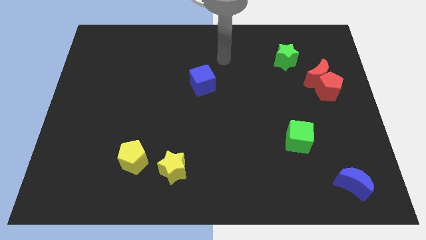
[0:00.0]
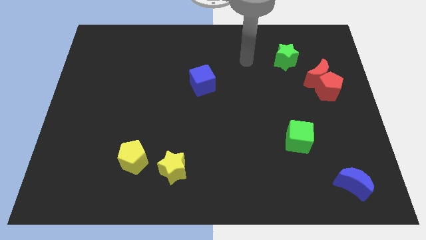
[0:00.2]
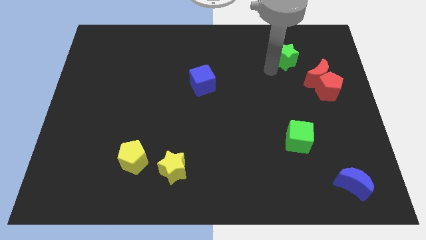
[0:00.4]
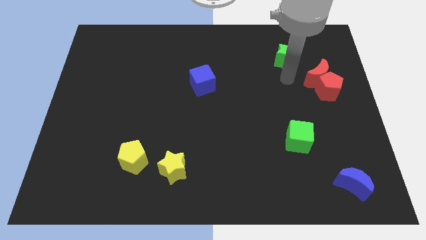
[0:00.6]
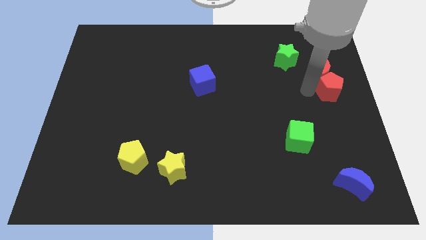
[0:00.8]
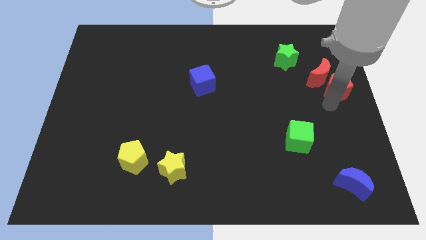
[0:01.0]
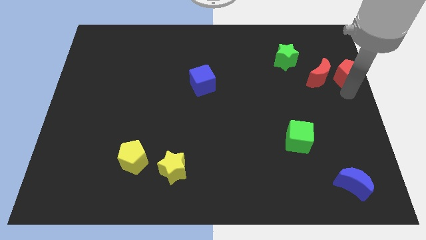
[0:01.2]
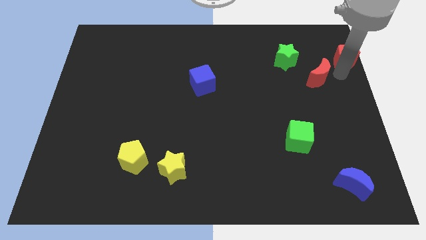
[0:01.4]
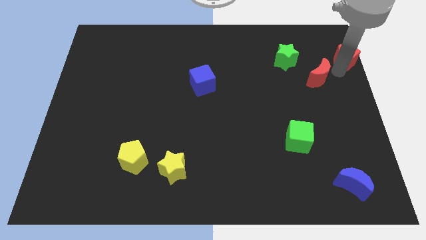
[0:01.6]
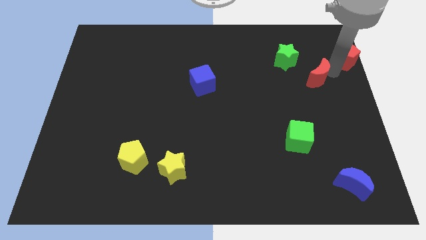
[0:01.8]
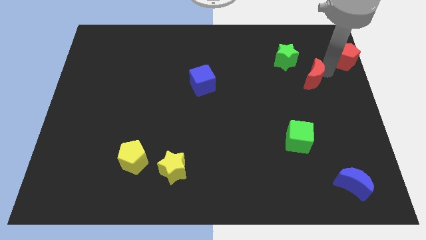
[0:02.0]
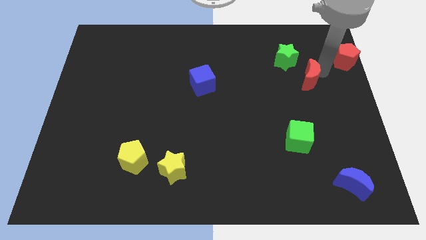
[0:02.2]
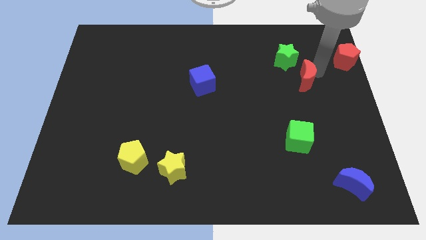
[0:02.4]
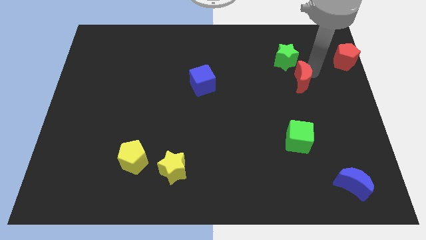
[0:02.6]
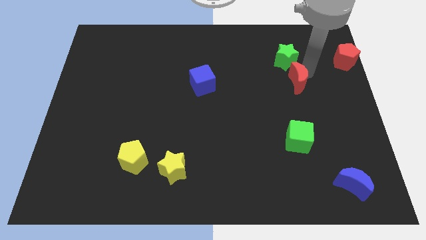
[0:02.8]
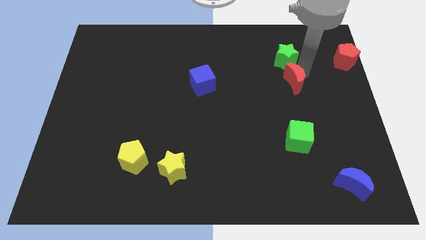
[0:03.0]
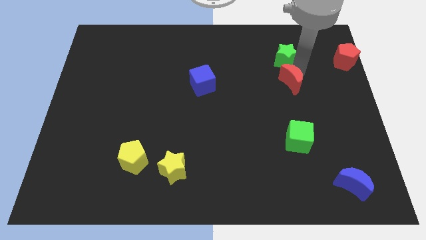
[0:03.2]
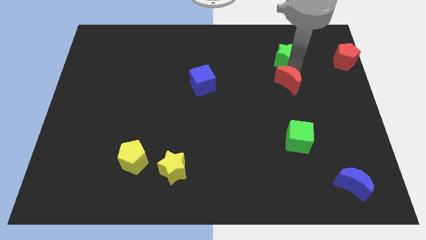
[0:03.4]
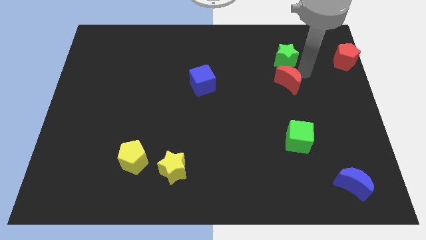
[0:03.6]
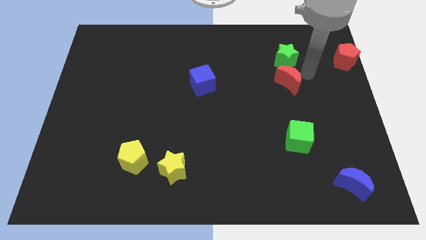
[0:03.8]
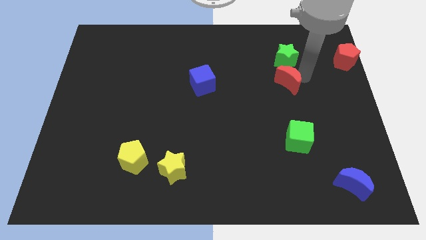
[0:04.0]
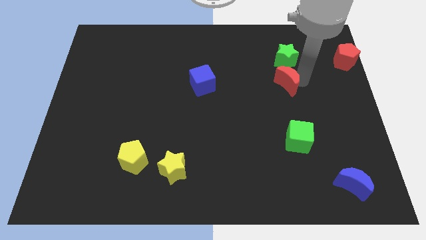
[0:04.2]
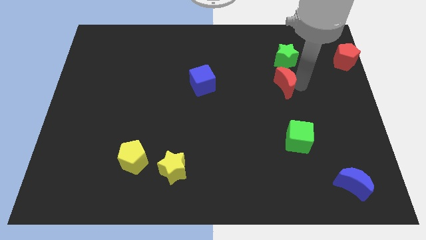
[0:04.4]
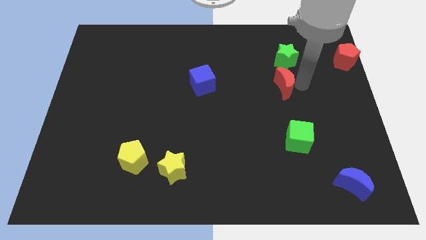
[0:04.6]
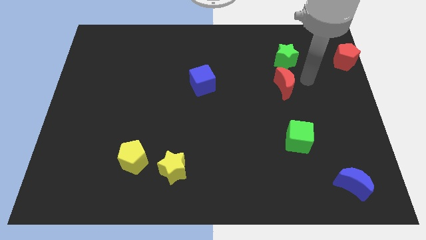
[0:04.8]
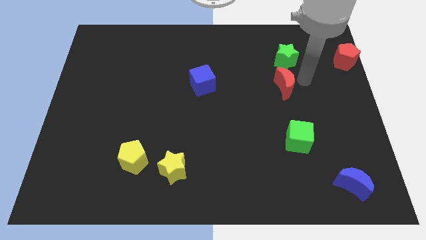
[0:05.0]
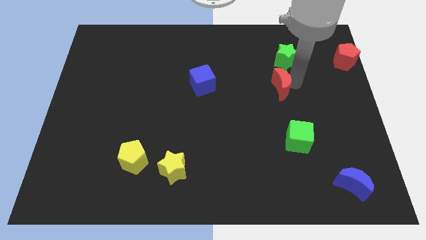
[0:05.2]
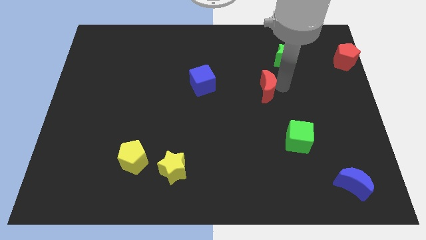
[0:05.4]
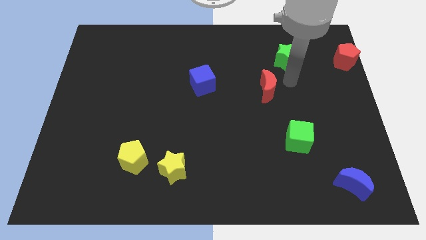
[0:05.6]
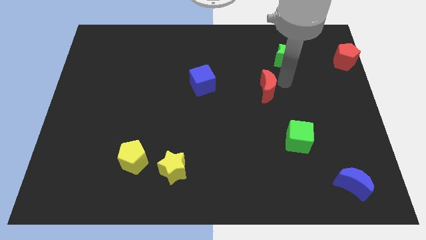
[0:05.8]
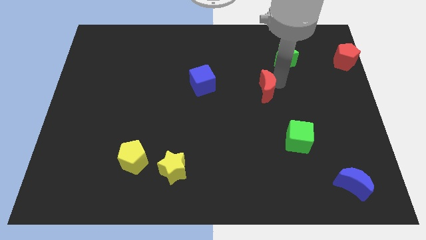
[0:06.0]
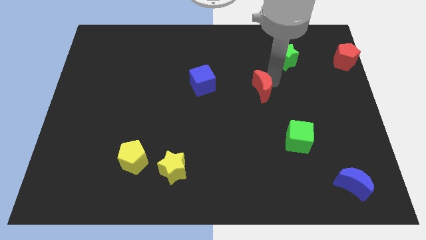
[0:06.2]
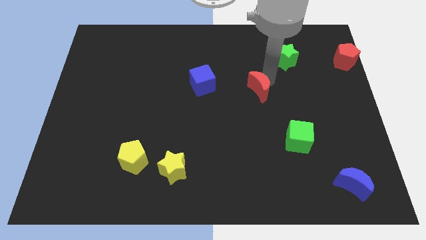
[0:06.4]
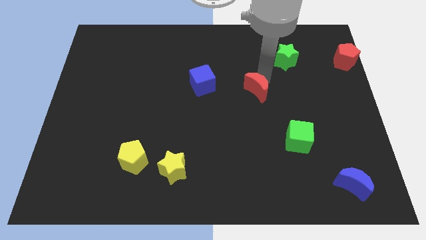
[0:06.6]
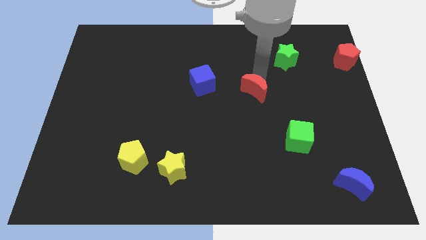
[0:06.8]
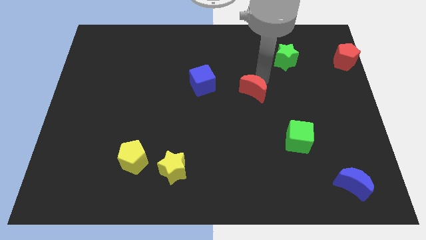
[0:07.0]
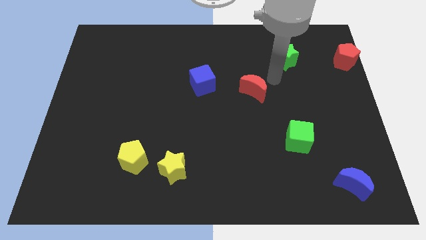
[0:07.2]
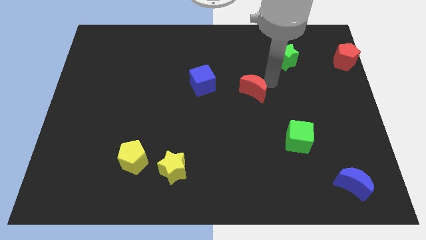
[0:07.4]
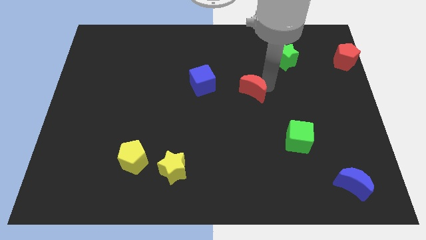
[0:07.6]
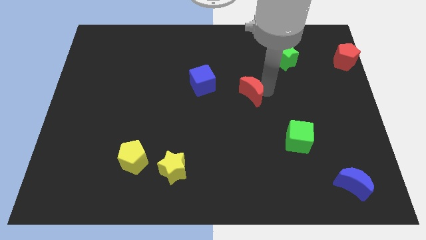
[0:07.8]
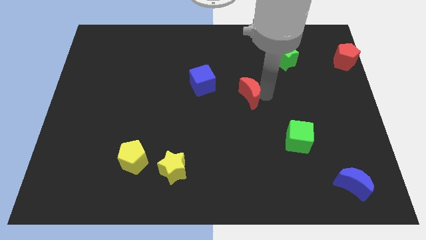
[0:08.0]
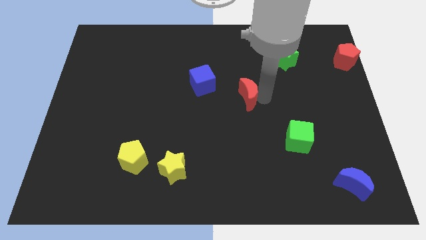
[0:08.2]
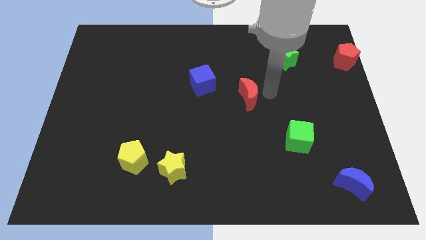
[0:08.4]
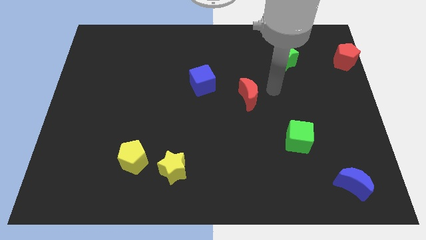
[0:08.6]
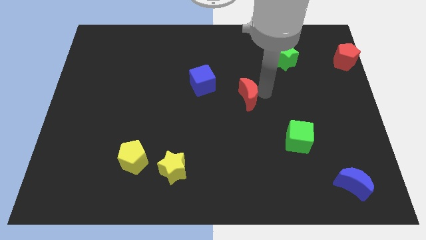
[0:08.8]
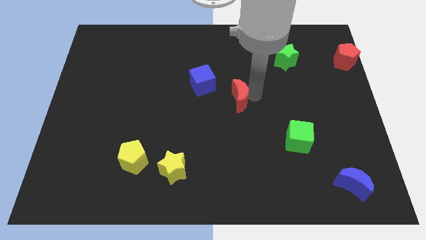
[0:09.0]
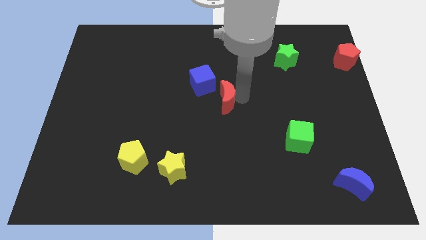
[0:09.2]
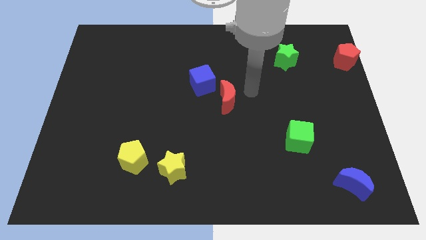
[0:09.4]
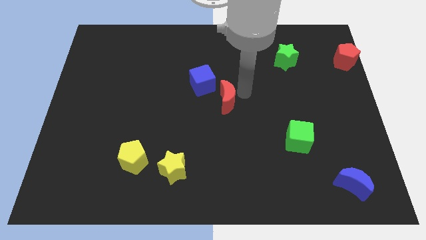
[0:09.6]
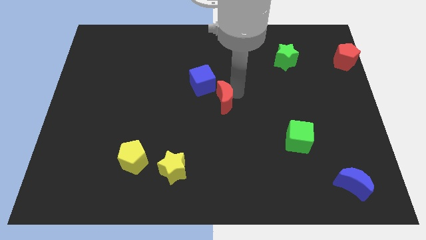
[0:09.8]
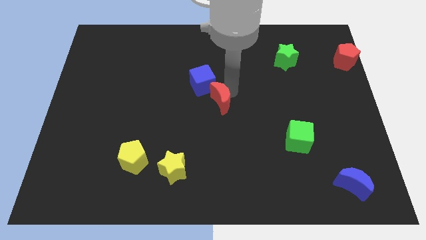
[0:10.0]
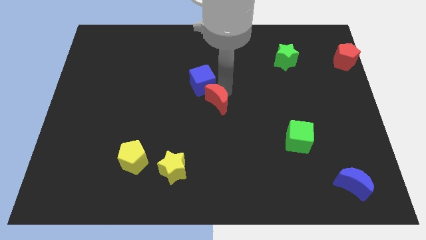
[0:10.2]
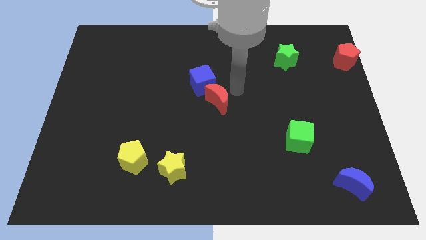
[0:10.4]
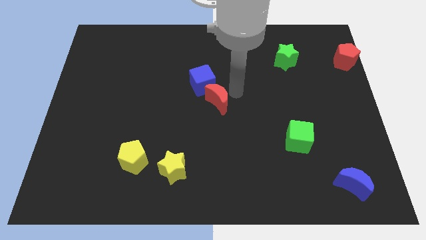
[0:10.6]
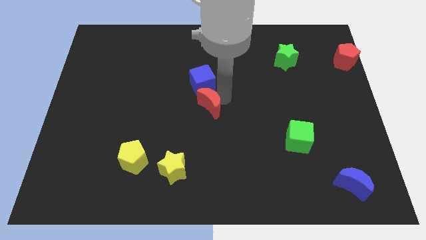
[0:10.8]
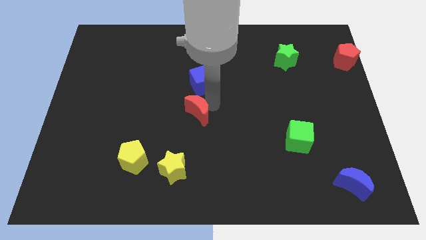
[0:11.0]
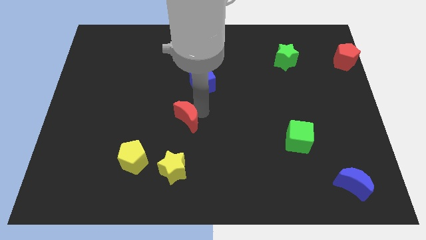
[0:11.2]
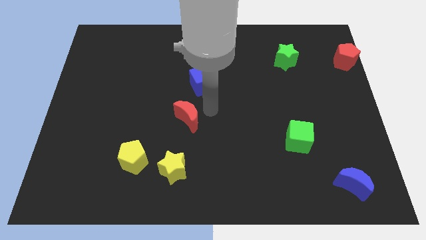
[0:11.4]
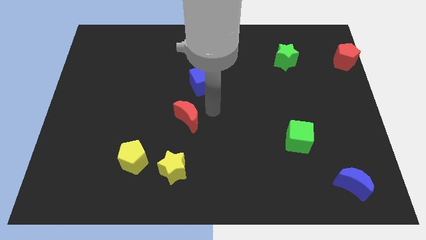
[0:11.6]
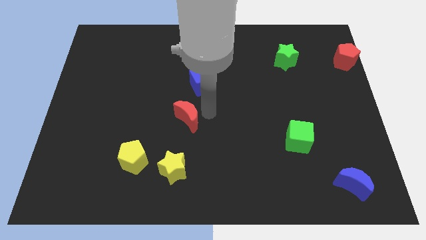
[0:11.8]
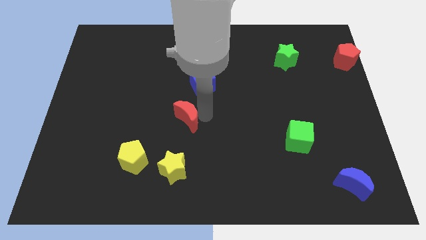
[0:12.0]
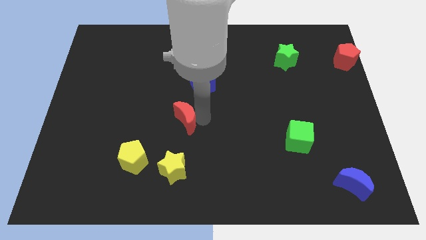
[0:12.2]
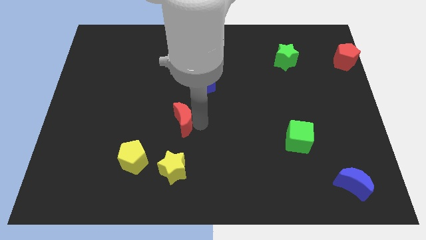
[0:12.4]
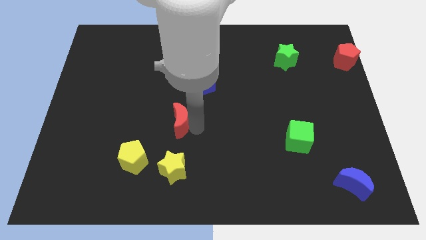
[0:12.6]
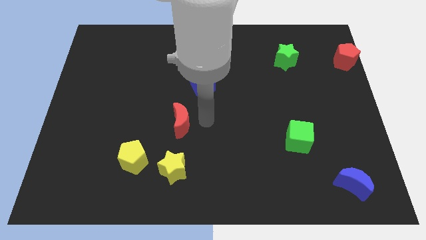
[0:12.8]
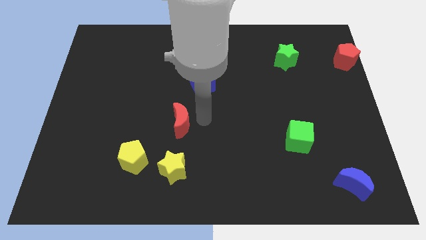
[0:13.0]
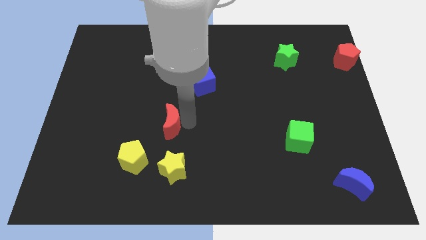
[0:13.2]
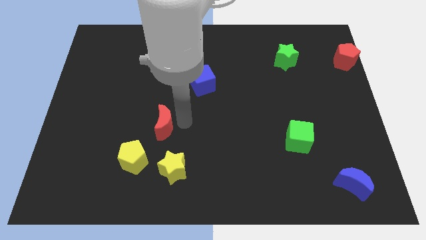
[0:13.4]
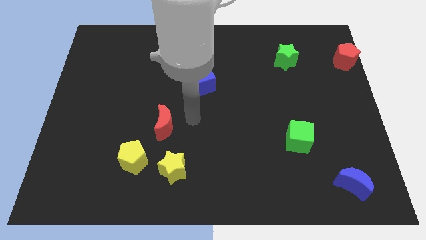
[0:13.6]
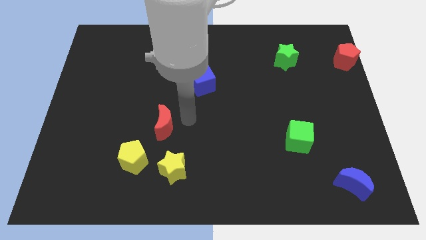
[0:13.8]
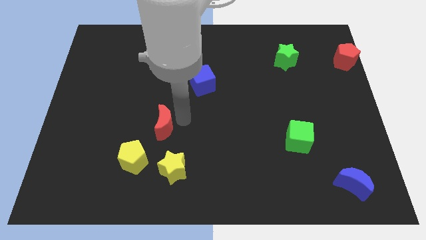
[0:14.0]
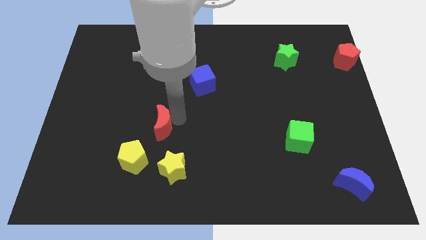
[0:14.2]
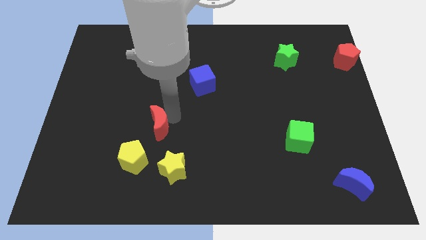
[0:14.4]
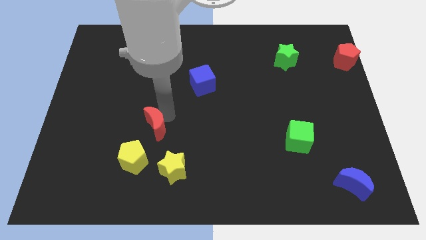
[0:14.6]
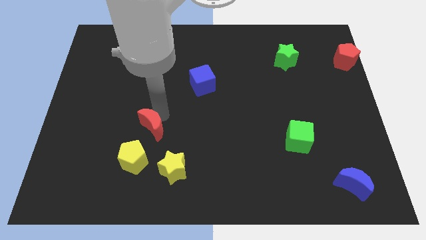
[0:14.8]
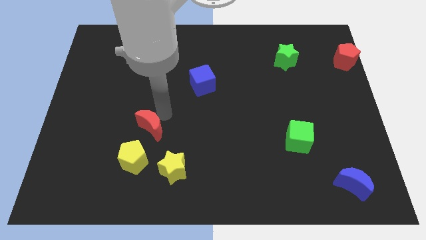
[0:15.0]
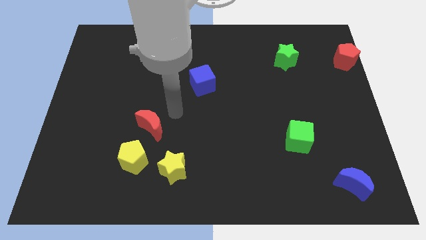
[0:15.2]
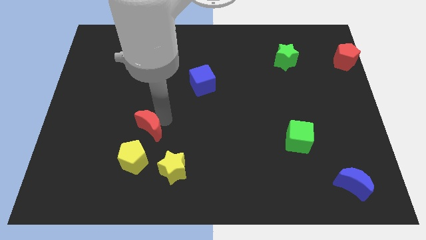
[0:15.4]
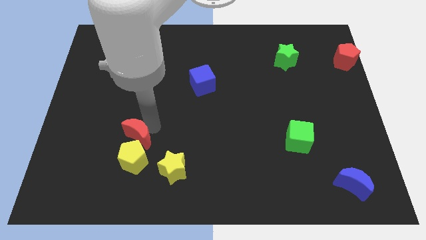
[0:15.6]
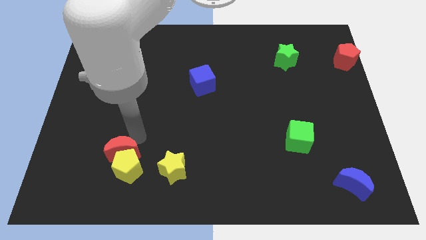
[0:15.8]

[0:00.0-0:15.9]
slide the red moon to the left of the yellow star

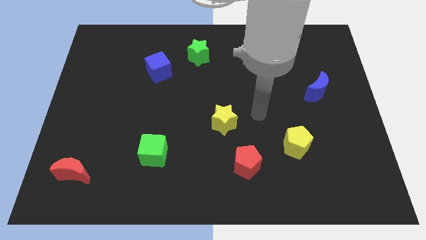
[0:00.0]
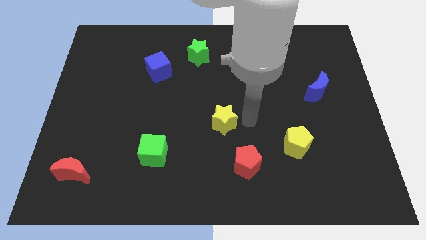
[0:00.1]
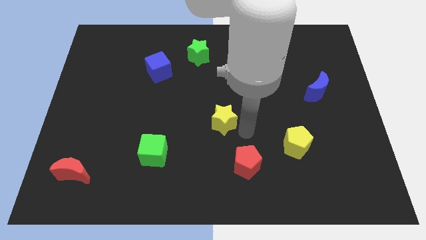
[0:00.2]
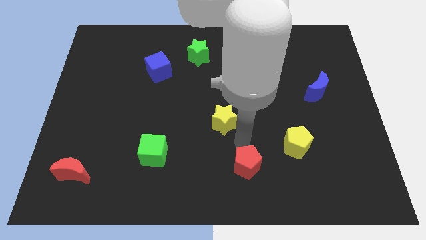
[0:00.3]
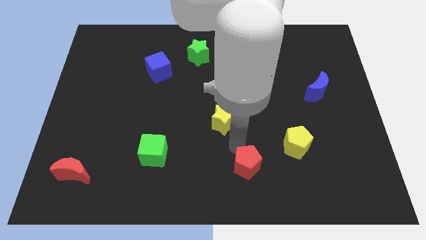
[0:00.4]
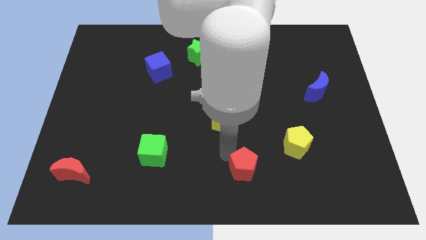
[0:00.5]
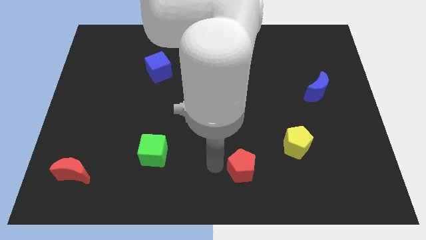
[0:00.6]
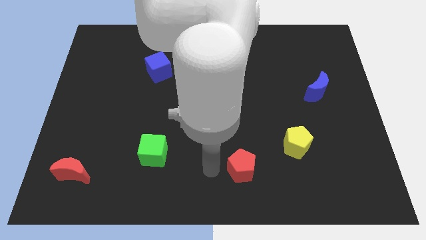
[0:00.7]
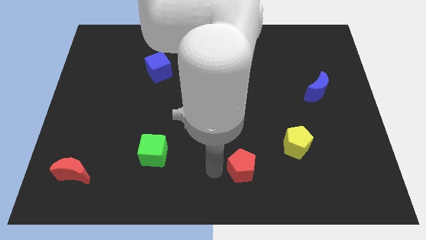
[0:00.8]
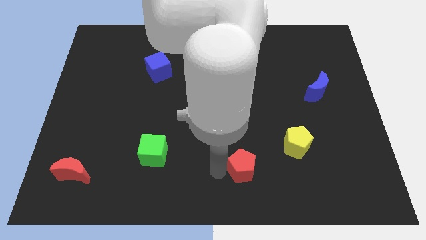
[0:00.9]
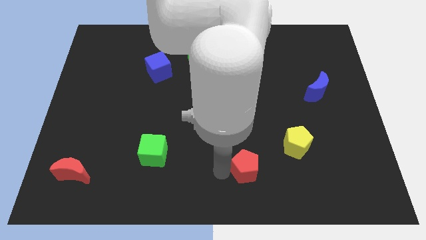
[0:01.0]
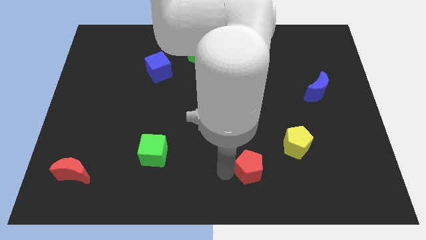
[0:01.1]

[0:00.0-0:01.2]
slide the red pentagon to the bottom left side of the yellow pentagon
